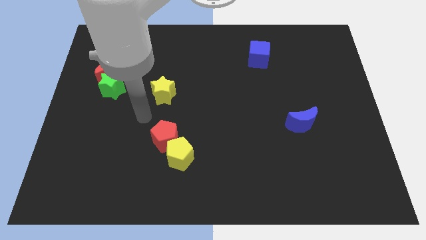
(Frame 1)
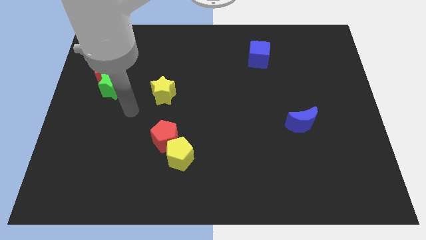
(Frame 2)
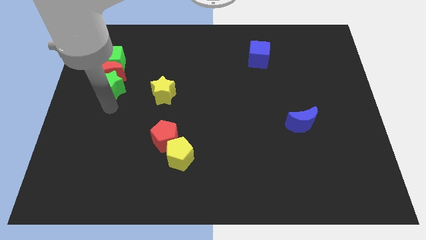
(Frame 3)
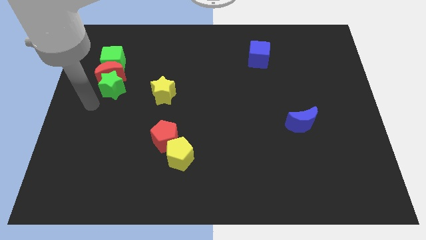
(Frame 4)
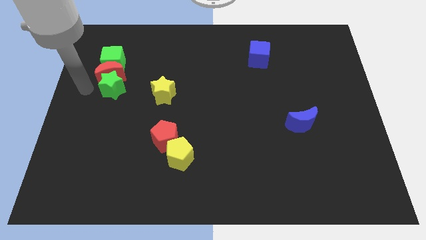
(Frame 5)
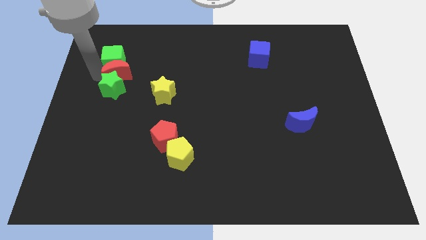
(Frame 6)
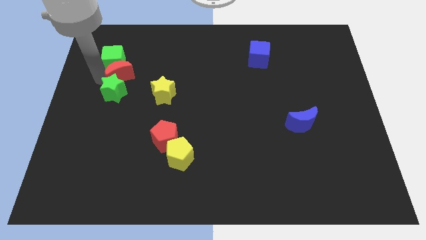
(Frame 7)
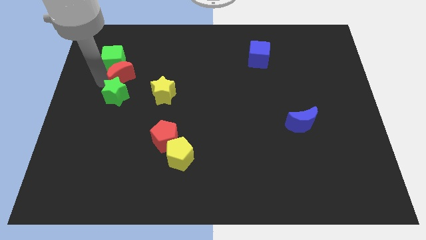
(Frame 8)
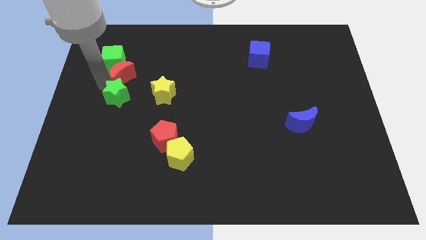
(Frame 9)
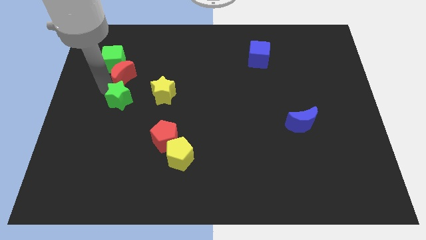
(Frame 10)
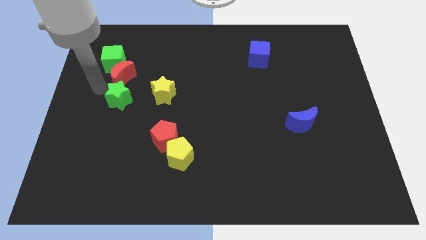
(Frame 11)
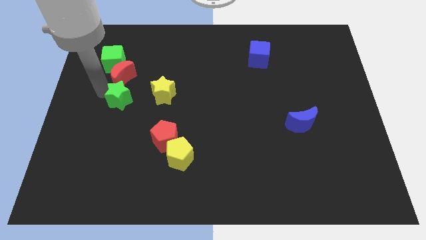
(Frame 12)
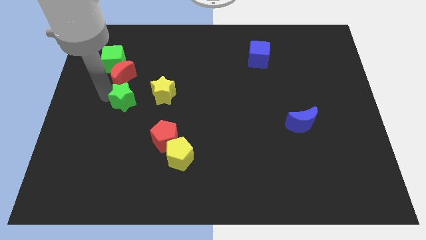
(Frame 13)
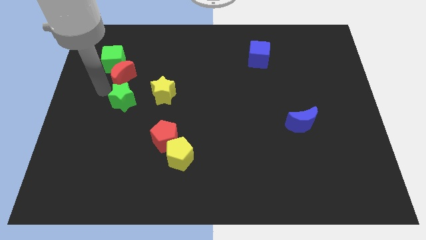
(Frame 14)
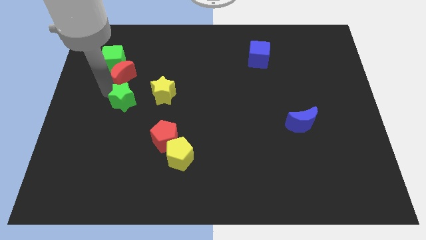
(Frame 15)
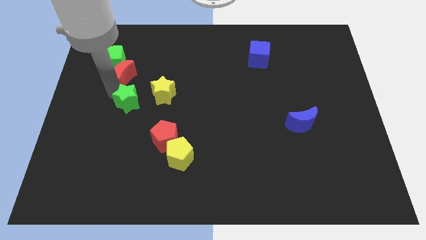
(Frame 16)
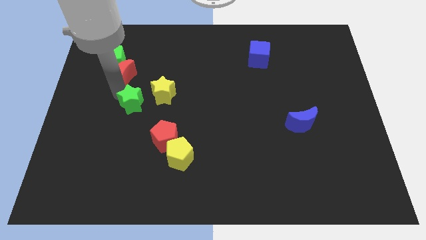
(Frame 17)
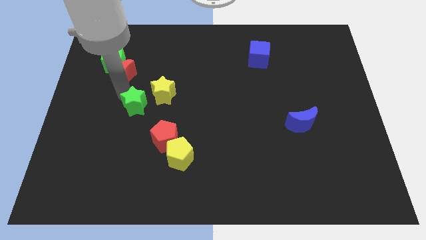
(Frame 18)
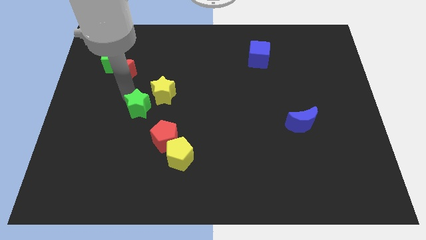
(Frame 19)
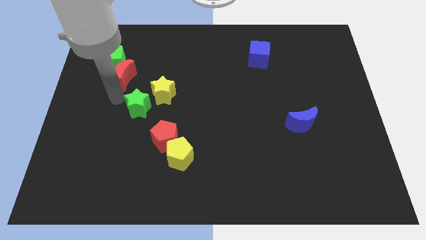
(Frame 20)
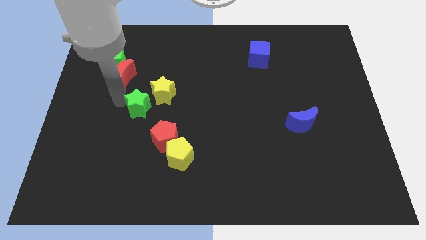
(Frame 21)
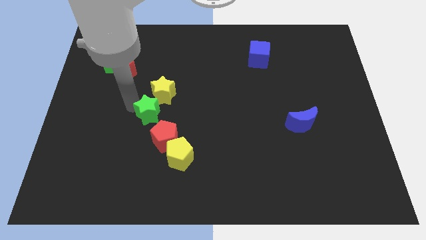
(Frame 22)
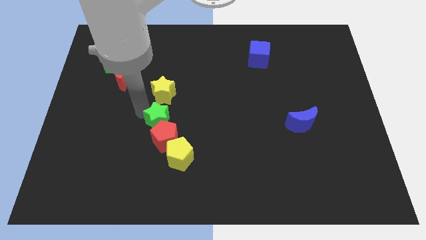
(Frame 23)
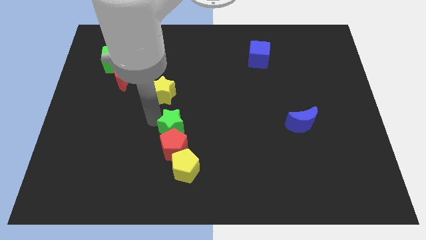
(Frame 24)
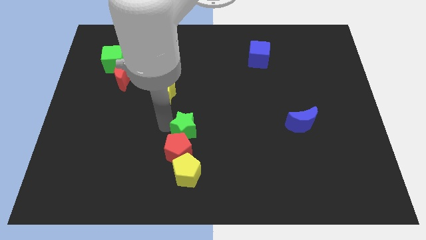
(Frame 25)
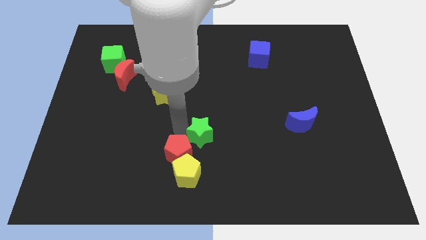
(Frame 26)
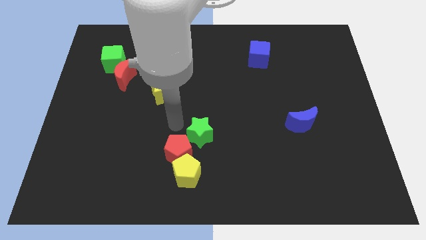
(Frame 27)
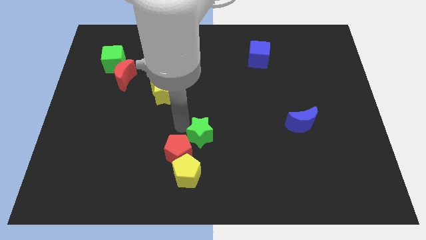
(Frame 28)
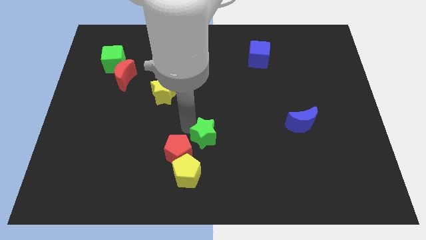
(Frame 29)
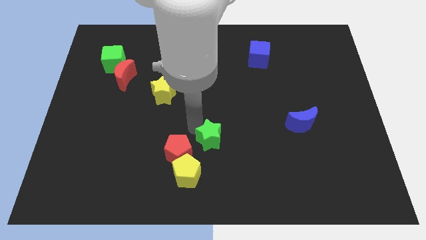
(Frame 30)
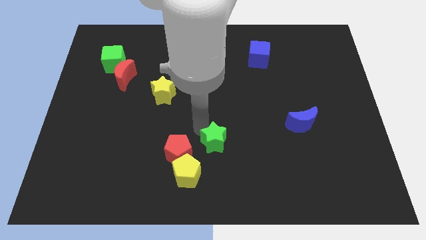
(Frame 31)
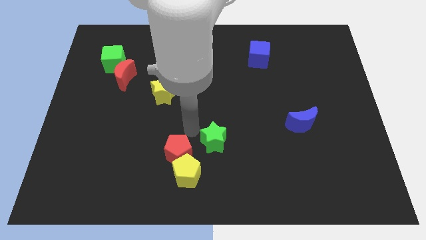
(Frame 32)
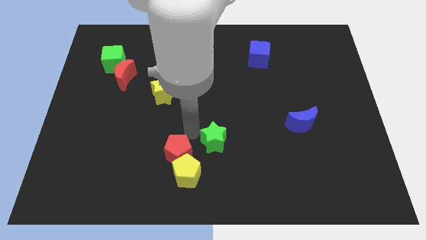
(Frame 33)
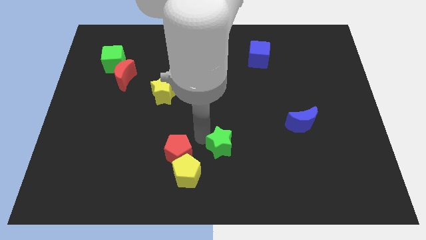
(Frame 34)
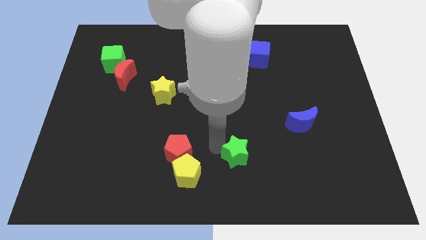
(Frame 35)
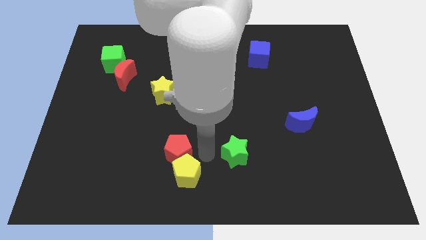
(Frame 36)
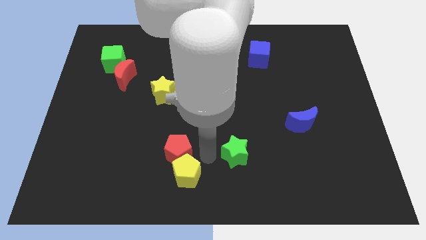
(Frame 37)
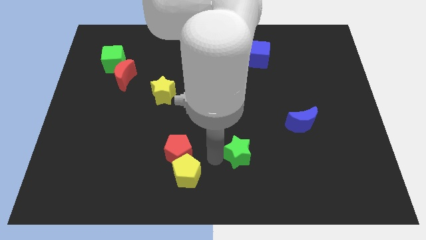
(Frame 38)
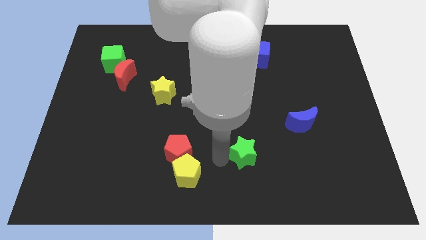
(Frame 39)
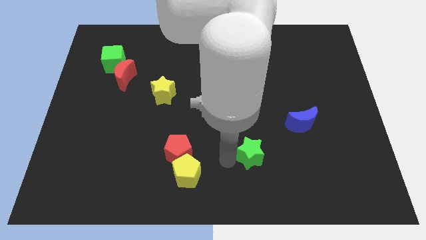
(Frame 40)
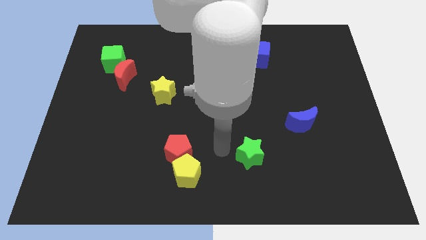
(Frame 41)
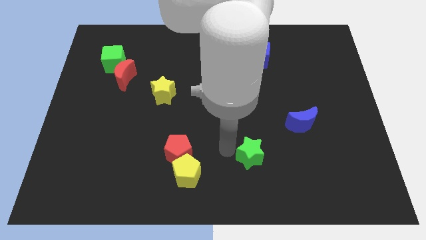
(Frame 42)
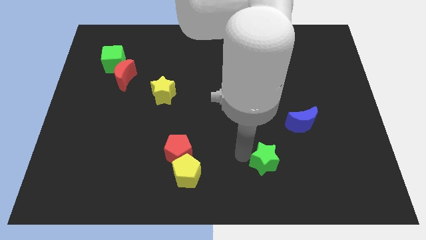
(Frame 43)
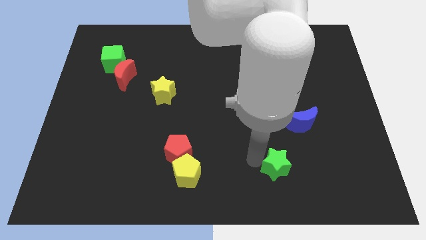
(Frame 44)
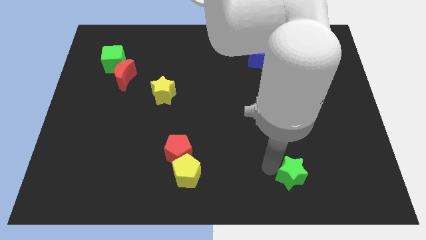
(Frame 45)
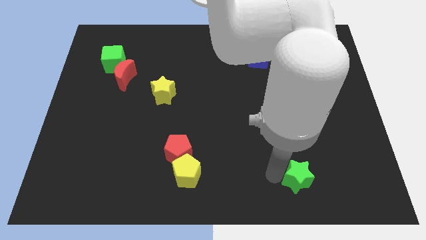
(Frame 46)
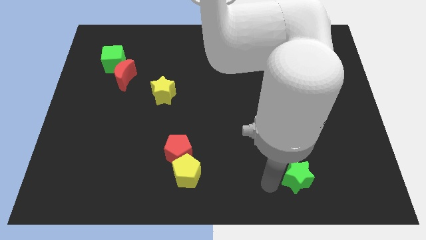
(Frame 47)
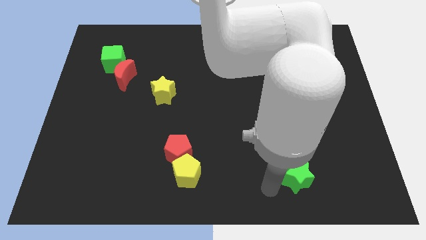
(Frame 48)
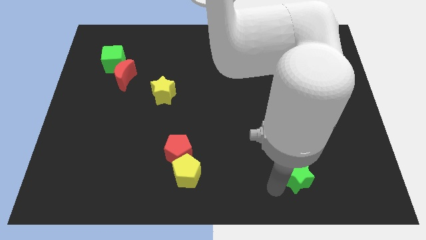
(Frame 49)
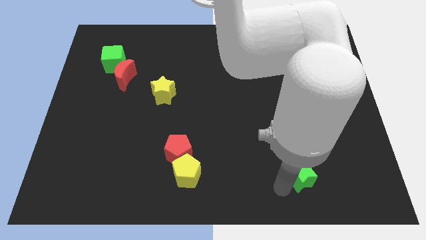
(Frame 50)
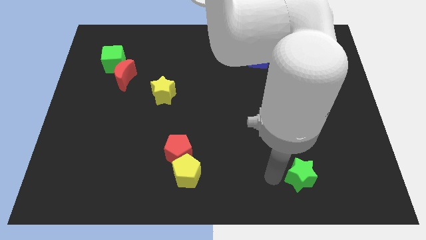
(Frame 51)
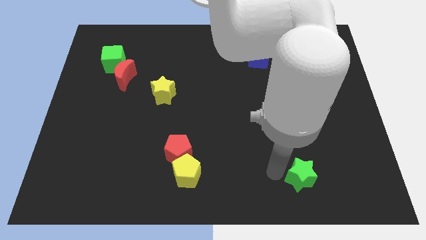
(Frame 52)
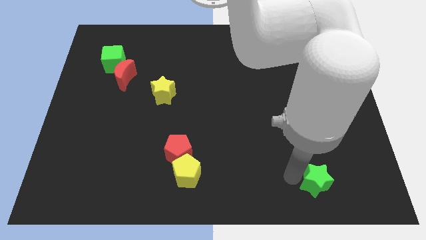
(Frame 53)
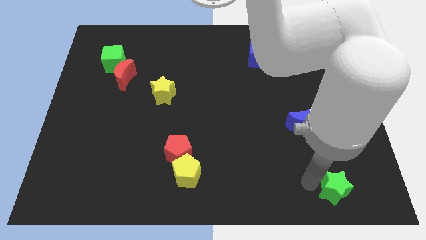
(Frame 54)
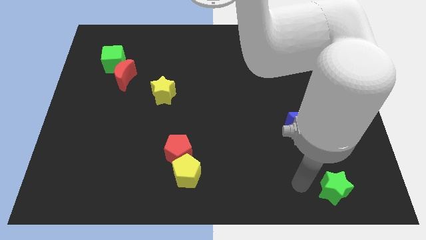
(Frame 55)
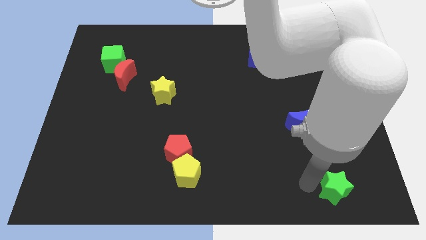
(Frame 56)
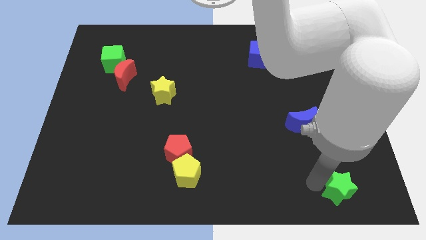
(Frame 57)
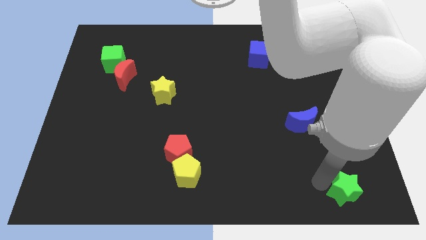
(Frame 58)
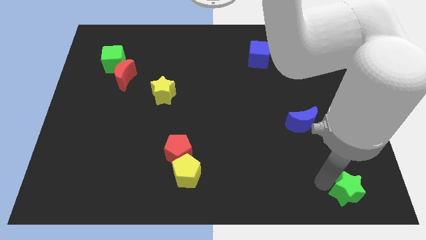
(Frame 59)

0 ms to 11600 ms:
push the green star to the lower right corner
